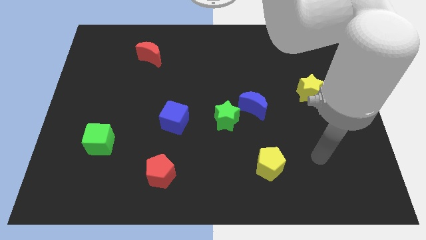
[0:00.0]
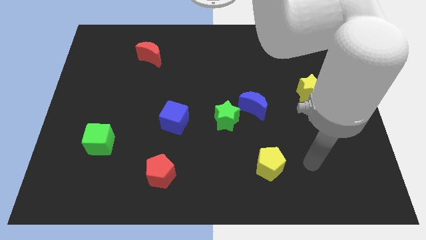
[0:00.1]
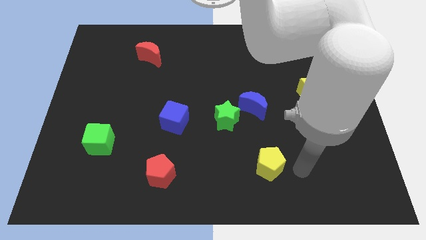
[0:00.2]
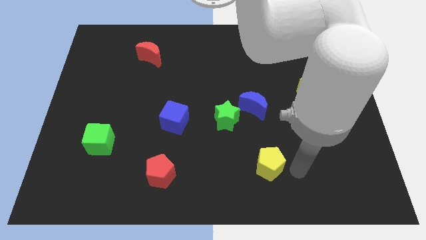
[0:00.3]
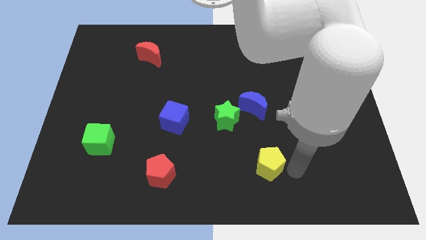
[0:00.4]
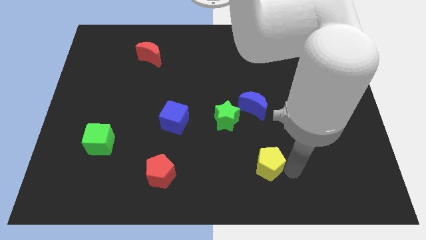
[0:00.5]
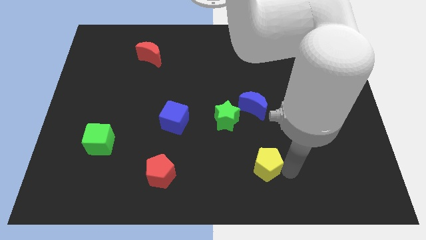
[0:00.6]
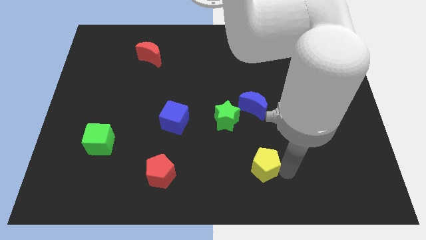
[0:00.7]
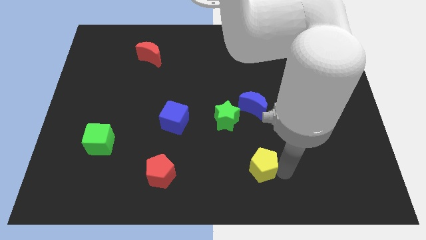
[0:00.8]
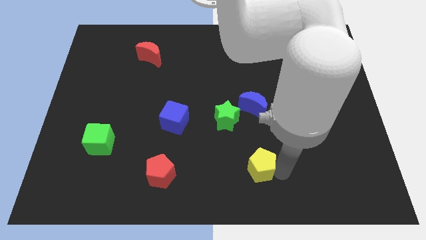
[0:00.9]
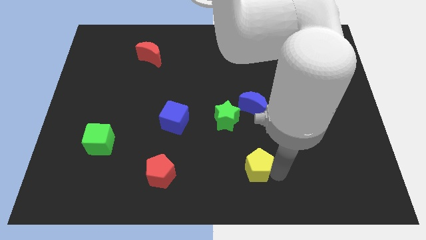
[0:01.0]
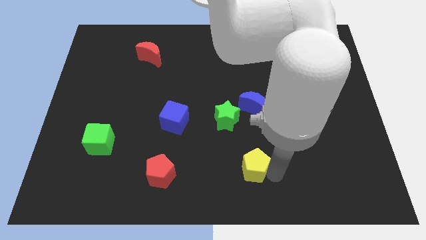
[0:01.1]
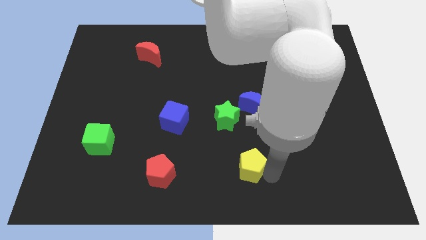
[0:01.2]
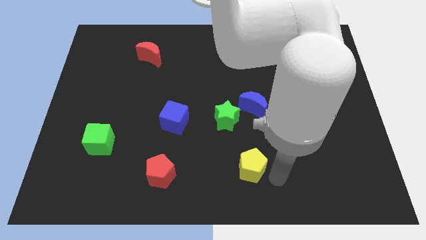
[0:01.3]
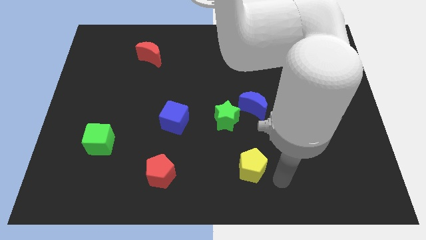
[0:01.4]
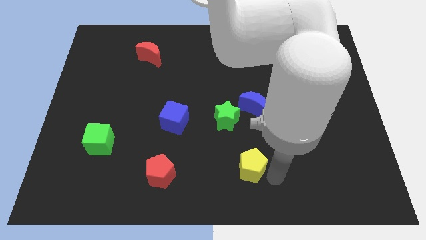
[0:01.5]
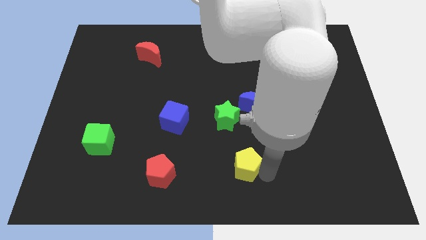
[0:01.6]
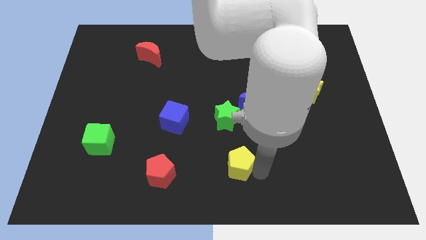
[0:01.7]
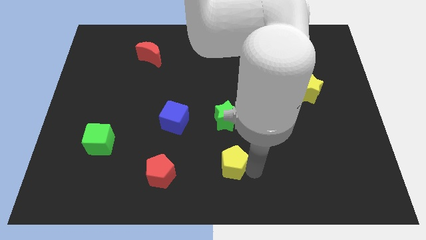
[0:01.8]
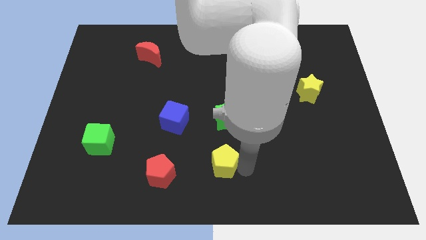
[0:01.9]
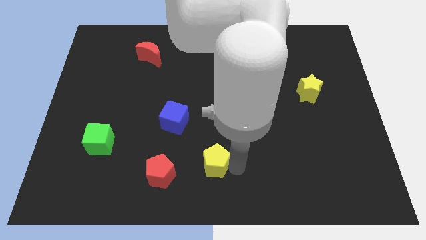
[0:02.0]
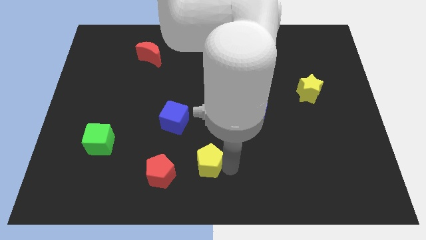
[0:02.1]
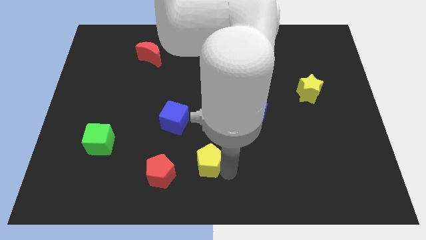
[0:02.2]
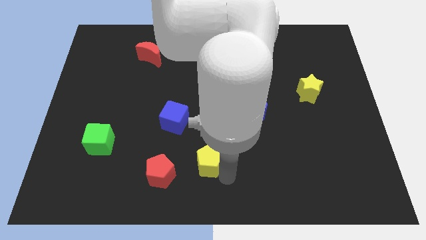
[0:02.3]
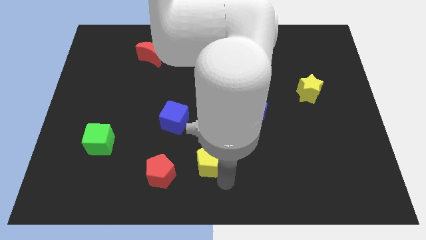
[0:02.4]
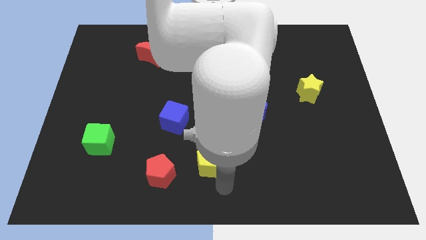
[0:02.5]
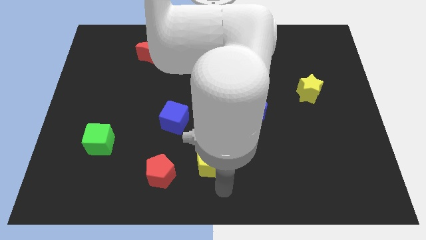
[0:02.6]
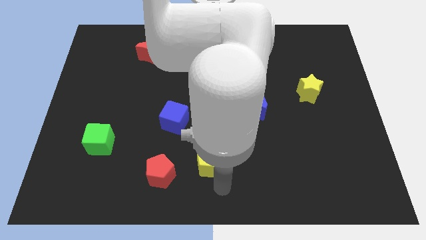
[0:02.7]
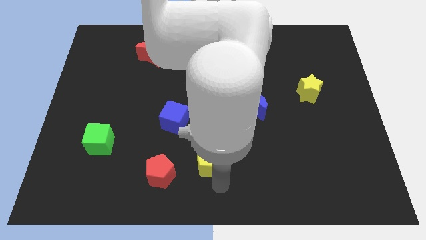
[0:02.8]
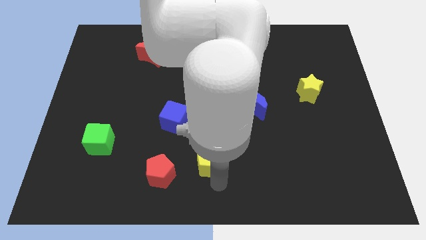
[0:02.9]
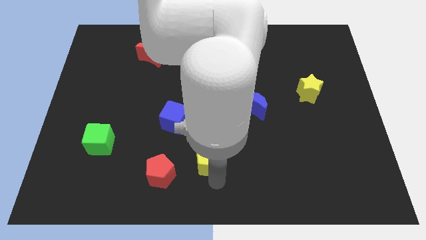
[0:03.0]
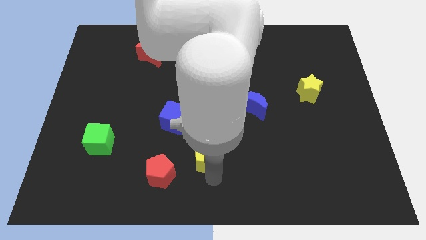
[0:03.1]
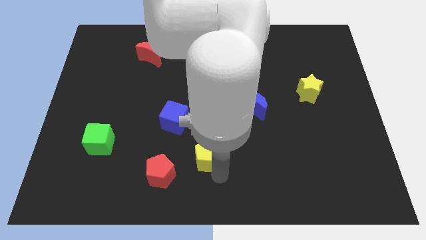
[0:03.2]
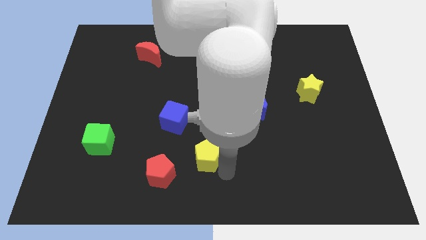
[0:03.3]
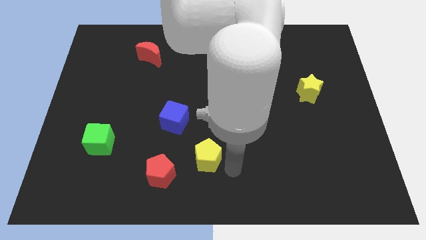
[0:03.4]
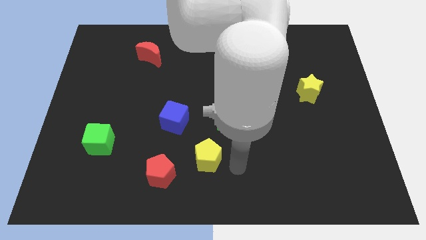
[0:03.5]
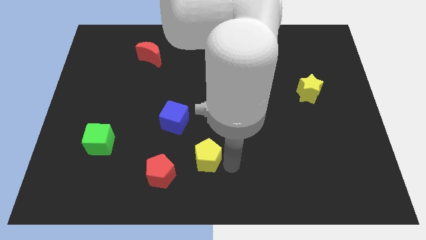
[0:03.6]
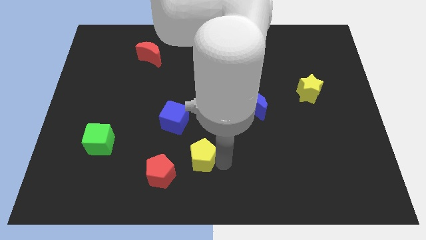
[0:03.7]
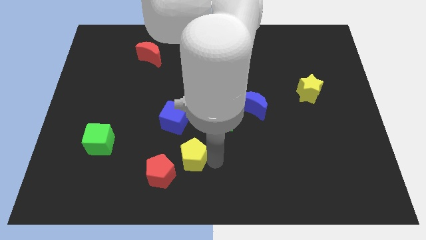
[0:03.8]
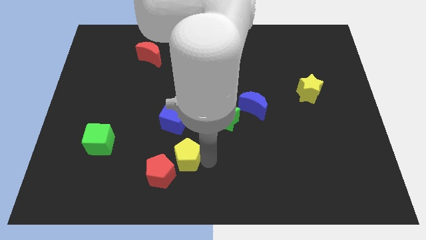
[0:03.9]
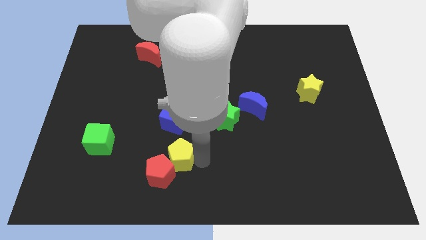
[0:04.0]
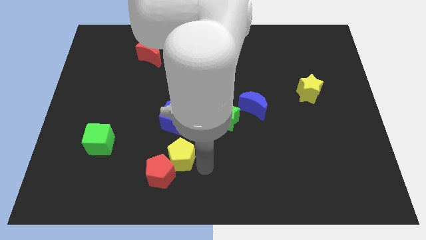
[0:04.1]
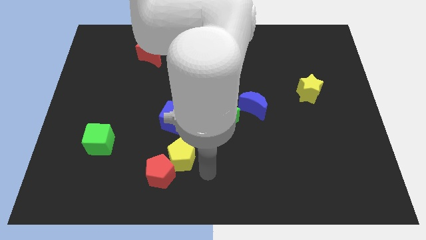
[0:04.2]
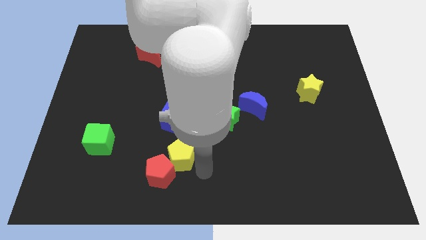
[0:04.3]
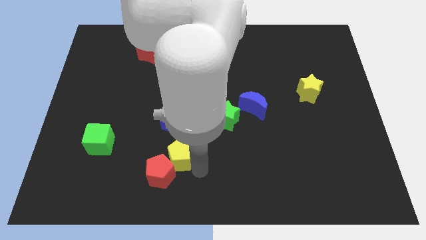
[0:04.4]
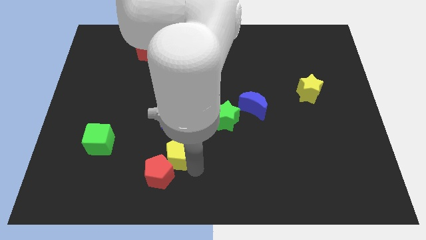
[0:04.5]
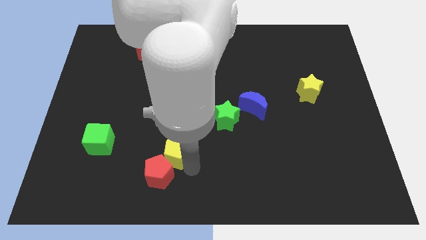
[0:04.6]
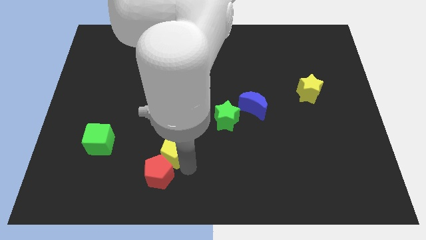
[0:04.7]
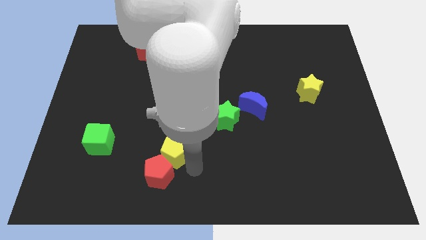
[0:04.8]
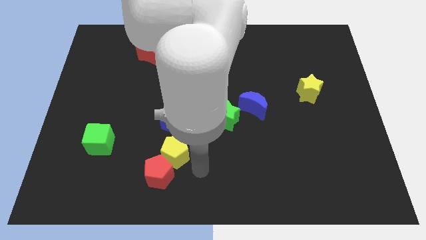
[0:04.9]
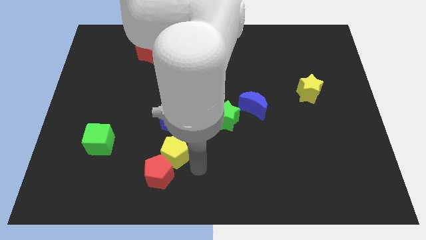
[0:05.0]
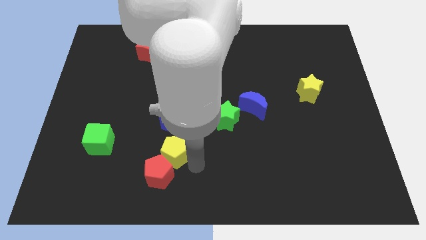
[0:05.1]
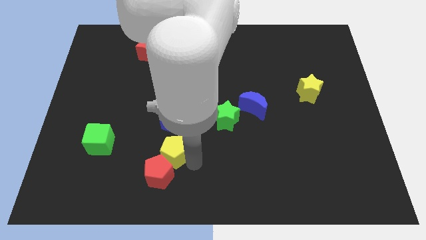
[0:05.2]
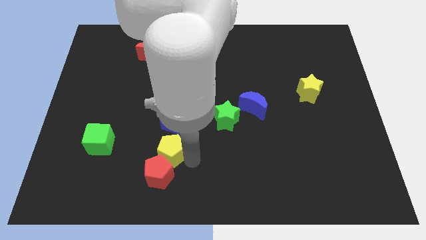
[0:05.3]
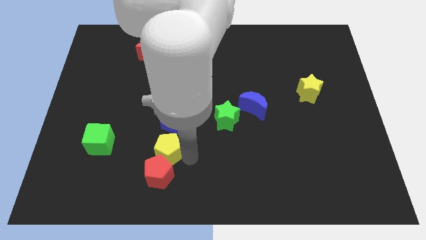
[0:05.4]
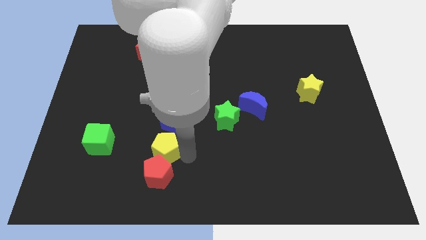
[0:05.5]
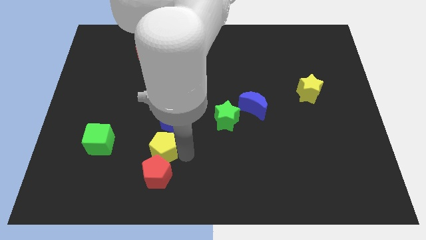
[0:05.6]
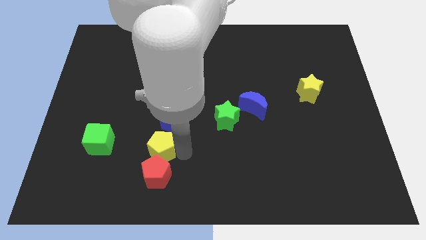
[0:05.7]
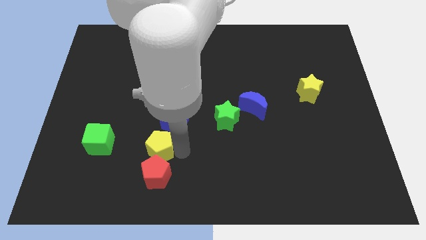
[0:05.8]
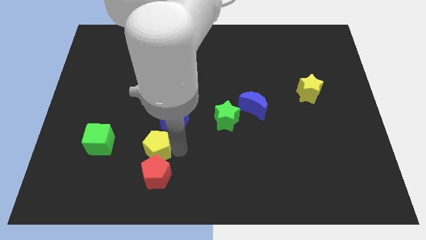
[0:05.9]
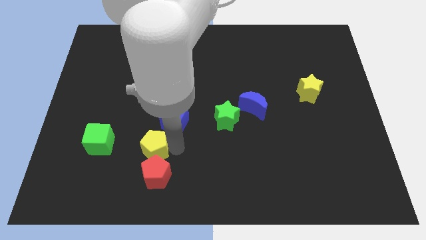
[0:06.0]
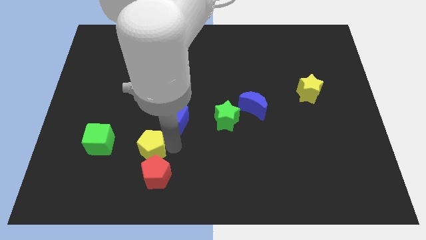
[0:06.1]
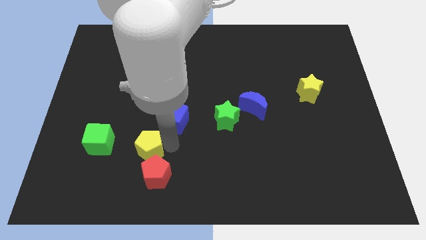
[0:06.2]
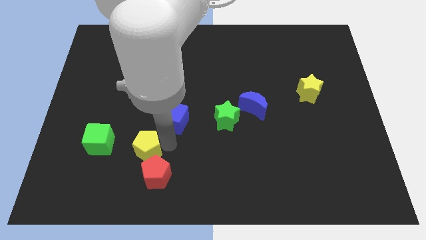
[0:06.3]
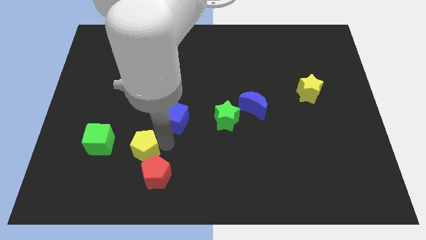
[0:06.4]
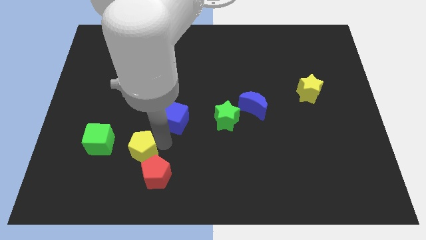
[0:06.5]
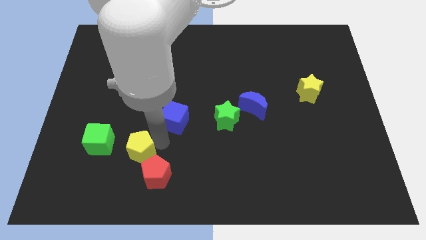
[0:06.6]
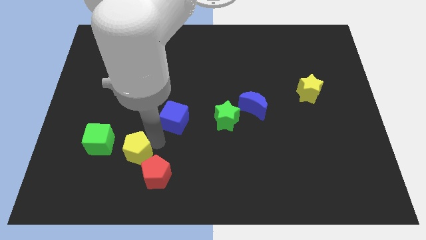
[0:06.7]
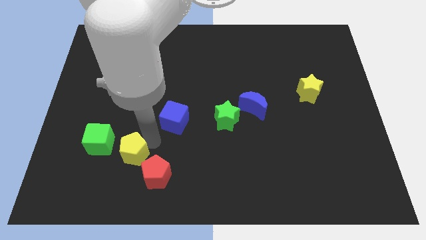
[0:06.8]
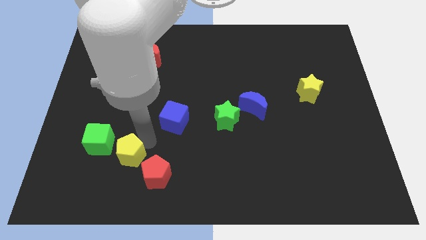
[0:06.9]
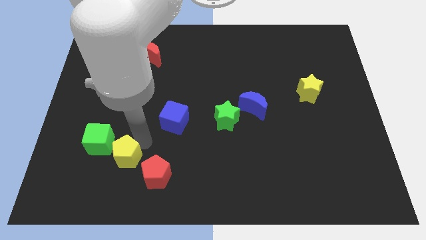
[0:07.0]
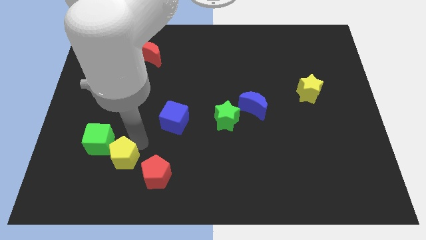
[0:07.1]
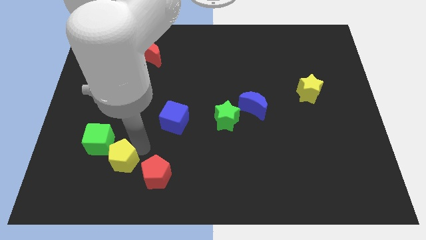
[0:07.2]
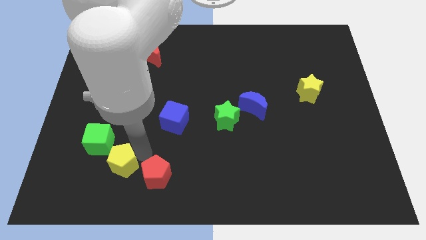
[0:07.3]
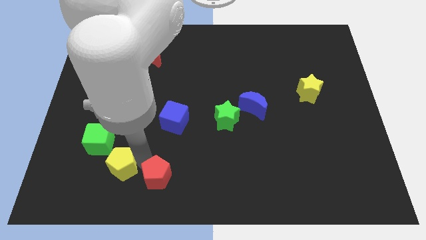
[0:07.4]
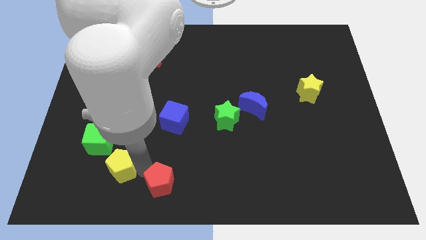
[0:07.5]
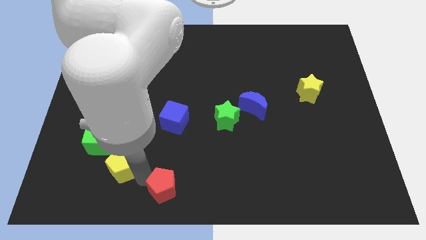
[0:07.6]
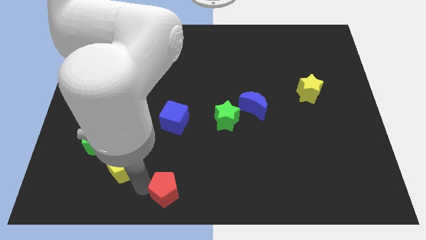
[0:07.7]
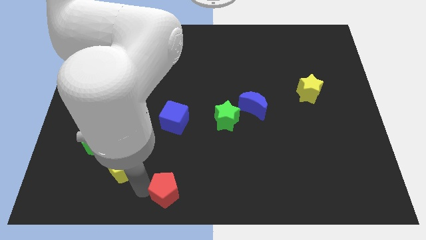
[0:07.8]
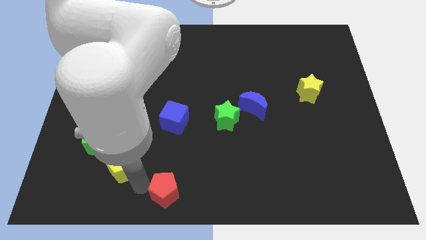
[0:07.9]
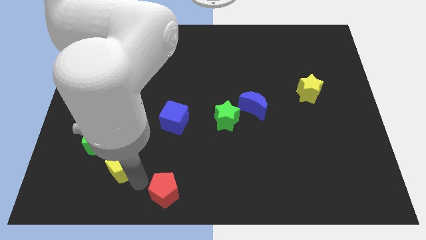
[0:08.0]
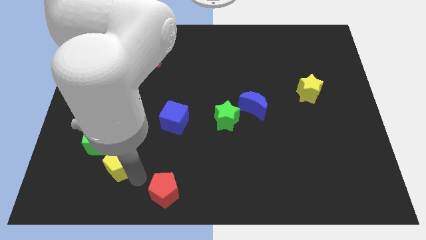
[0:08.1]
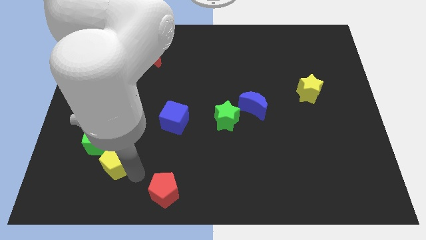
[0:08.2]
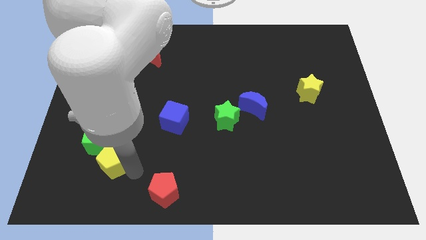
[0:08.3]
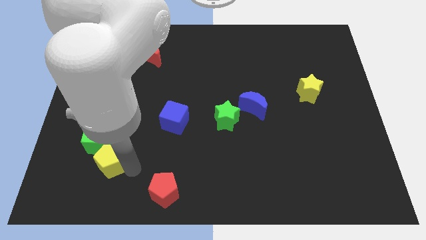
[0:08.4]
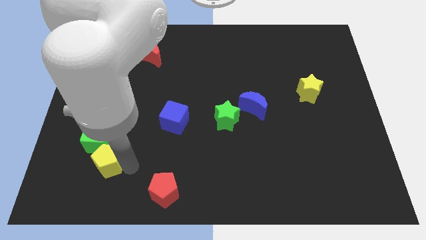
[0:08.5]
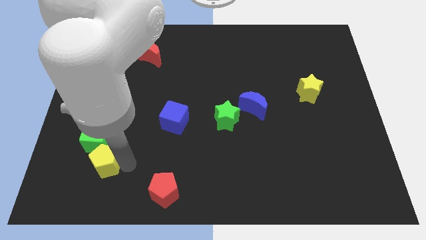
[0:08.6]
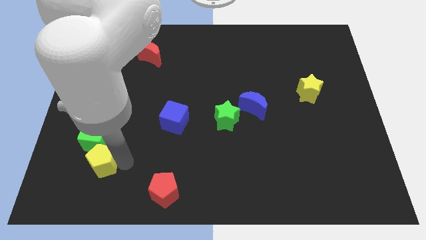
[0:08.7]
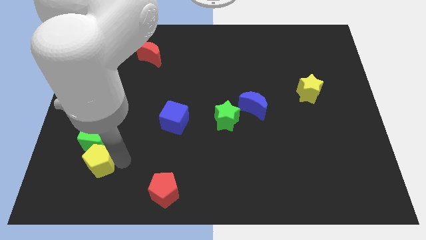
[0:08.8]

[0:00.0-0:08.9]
move the yellow pentagon towards the green cube
